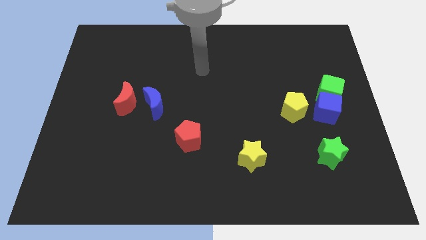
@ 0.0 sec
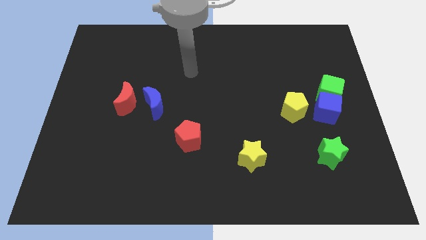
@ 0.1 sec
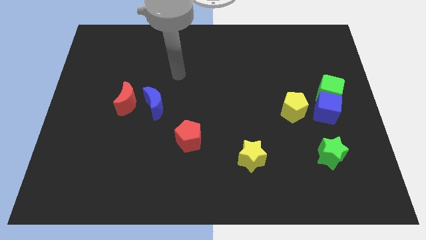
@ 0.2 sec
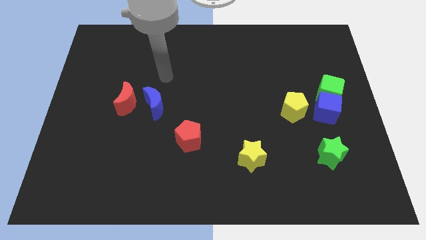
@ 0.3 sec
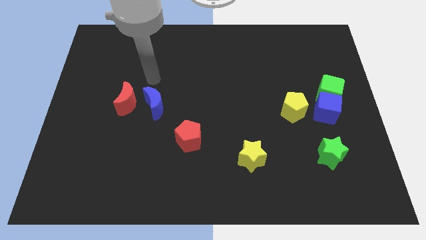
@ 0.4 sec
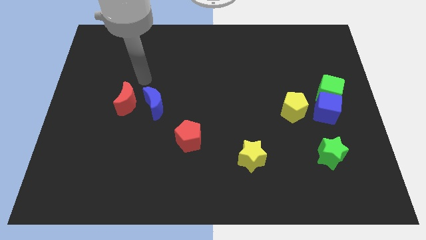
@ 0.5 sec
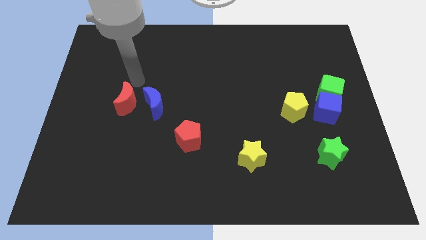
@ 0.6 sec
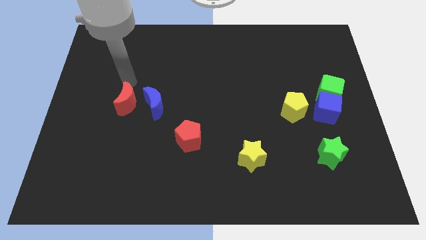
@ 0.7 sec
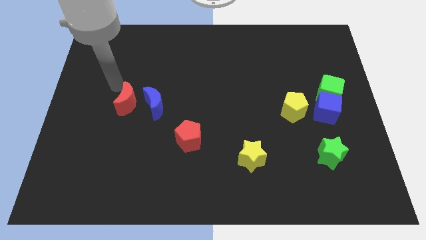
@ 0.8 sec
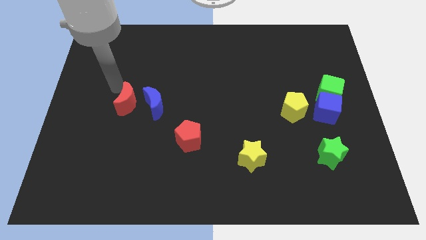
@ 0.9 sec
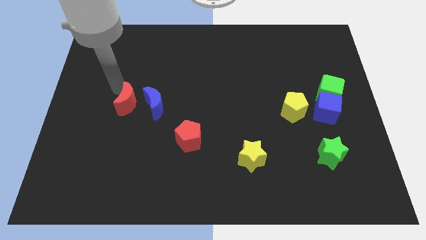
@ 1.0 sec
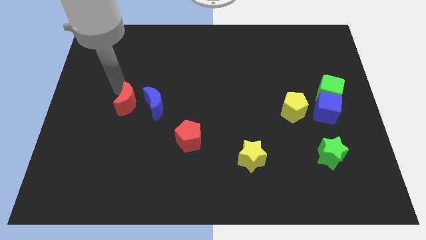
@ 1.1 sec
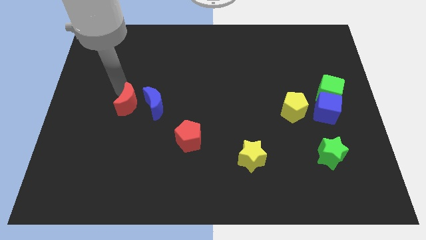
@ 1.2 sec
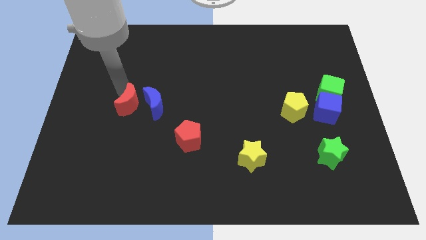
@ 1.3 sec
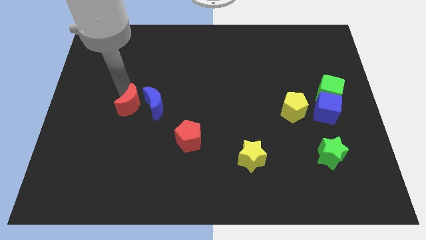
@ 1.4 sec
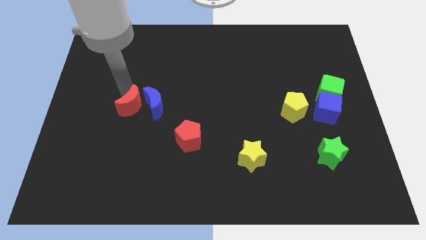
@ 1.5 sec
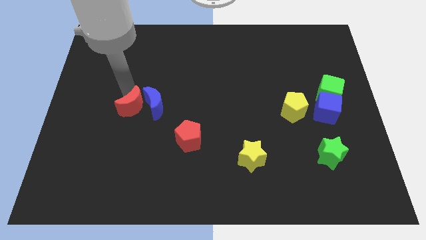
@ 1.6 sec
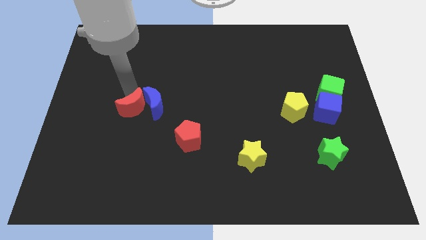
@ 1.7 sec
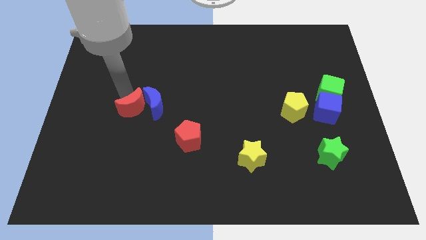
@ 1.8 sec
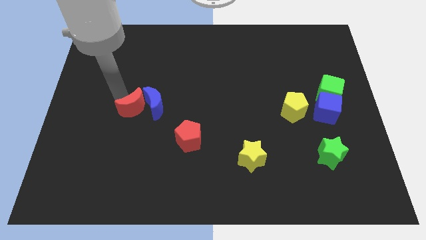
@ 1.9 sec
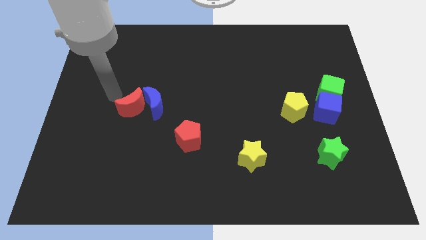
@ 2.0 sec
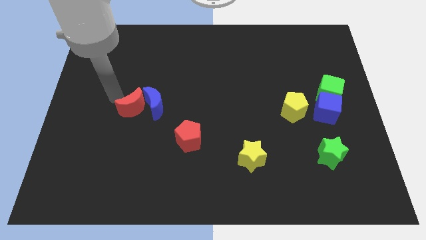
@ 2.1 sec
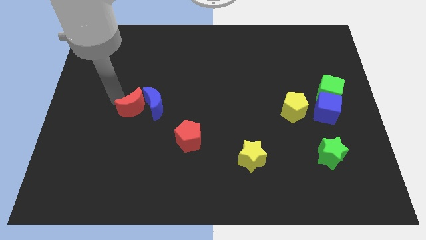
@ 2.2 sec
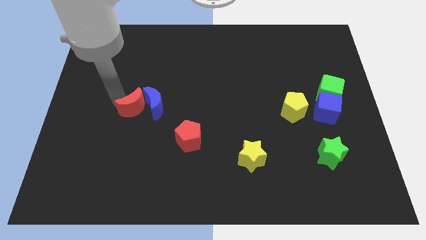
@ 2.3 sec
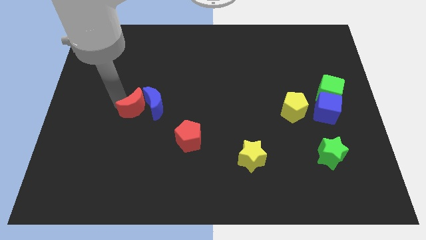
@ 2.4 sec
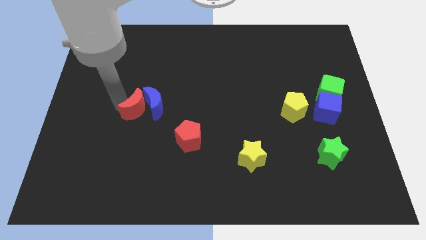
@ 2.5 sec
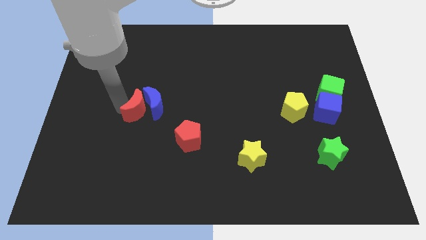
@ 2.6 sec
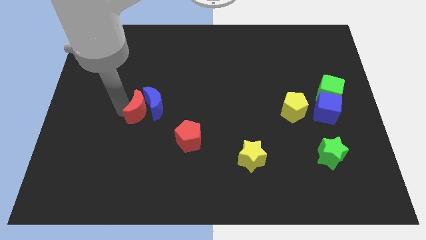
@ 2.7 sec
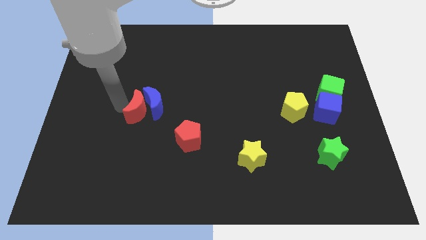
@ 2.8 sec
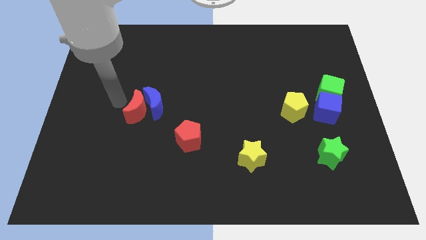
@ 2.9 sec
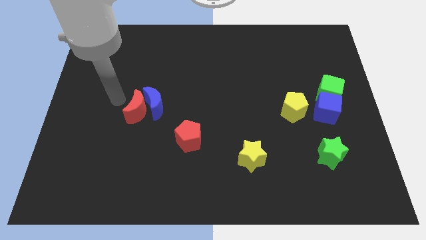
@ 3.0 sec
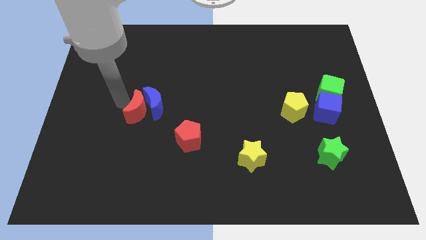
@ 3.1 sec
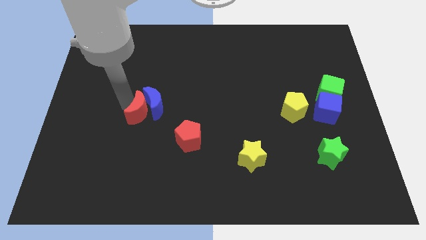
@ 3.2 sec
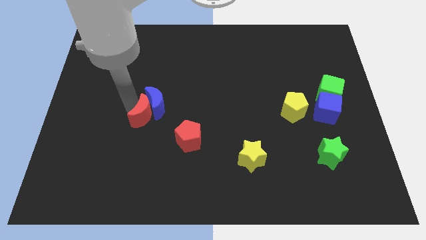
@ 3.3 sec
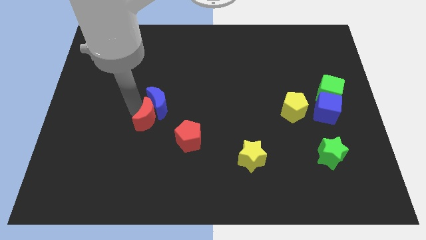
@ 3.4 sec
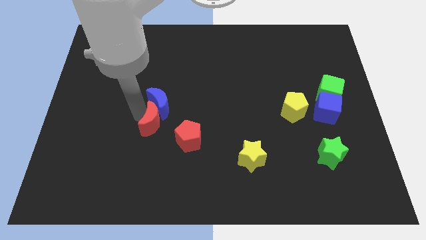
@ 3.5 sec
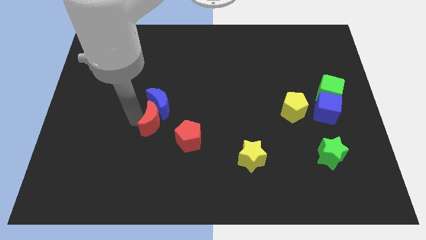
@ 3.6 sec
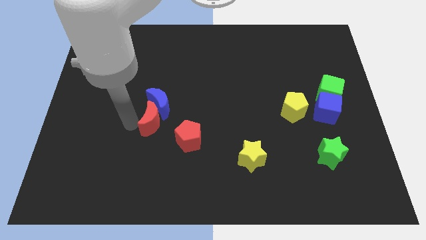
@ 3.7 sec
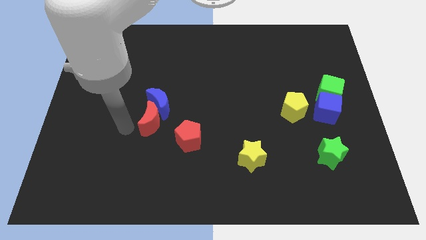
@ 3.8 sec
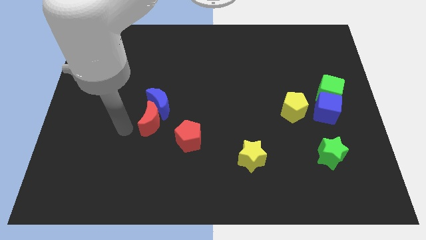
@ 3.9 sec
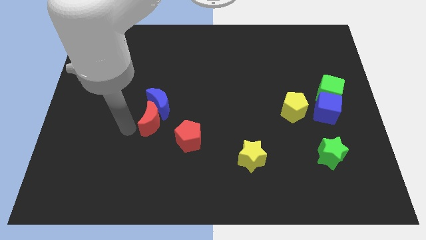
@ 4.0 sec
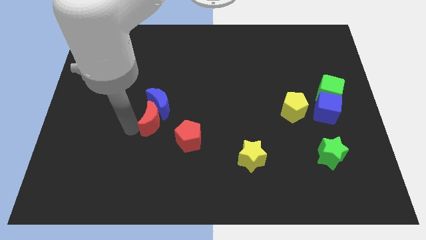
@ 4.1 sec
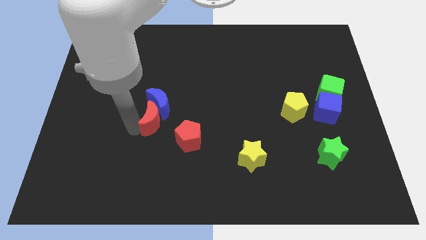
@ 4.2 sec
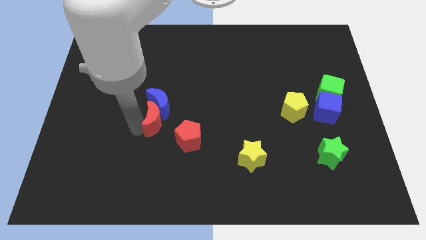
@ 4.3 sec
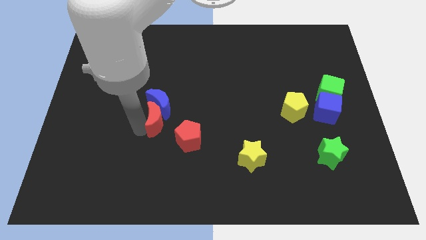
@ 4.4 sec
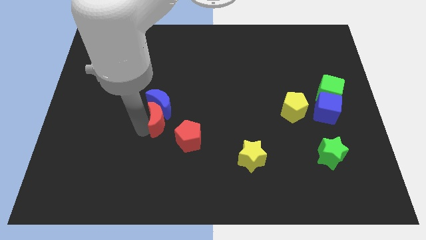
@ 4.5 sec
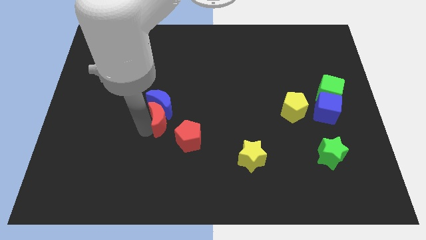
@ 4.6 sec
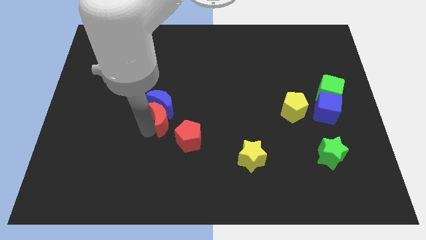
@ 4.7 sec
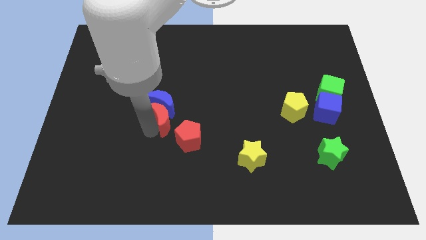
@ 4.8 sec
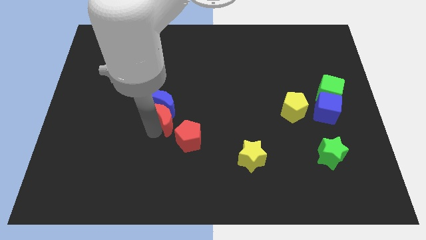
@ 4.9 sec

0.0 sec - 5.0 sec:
move the red moon to the middle of the board

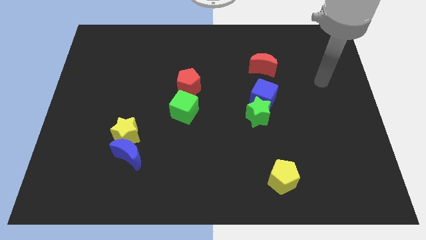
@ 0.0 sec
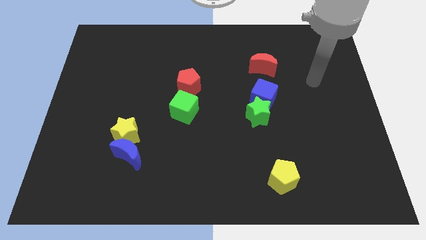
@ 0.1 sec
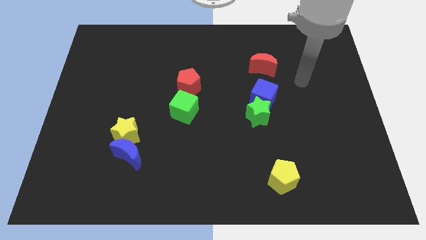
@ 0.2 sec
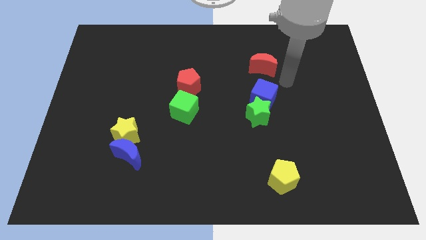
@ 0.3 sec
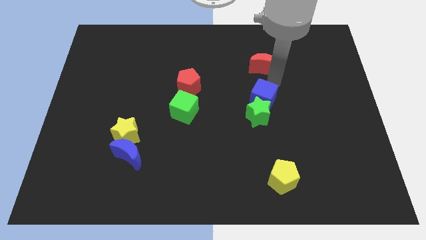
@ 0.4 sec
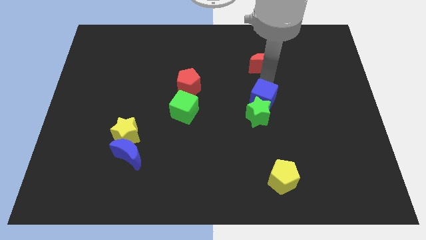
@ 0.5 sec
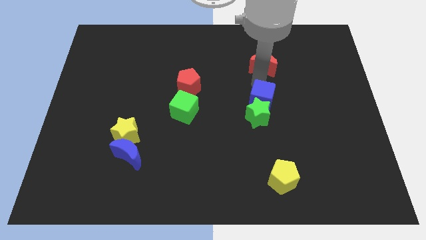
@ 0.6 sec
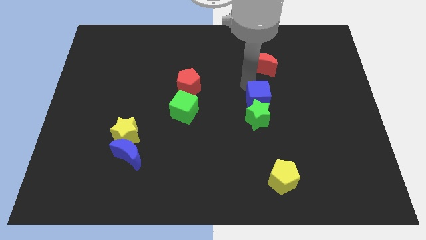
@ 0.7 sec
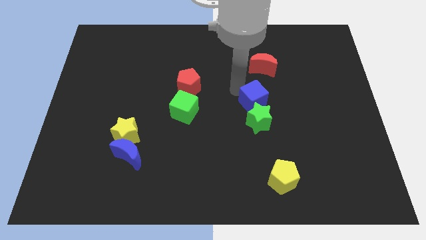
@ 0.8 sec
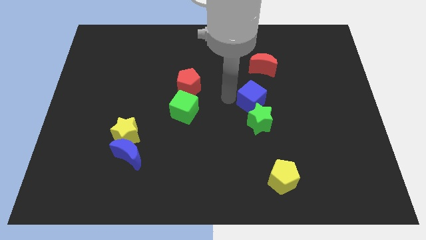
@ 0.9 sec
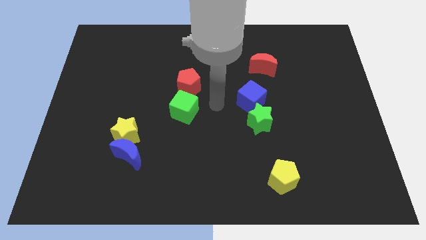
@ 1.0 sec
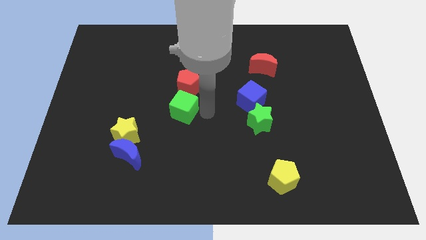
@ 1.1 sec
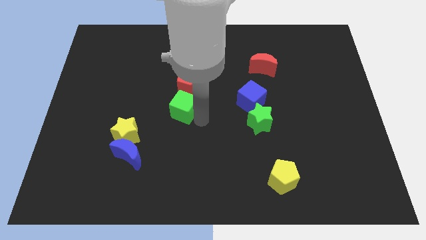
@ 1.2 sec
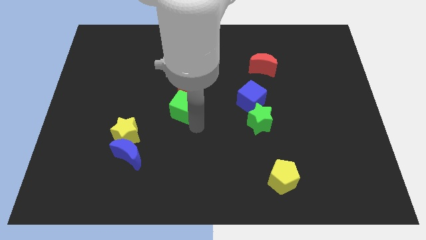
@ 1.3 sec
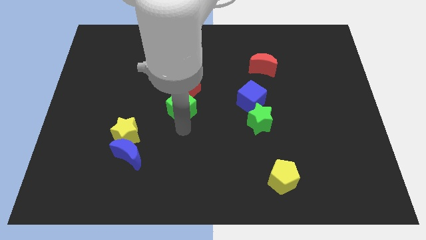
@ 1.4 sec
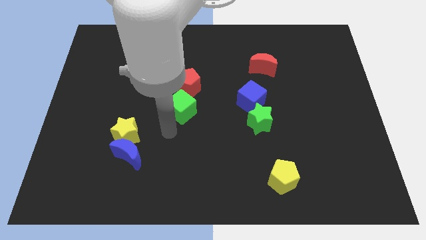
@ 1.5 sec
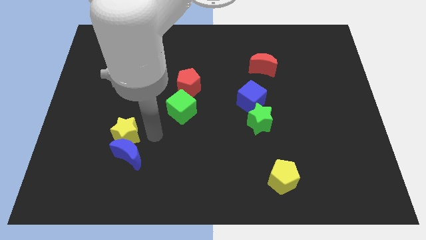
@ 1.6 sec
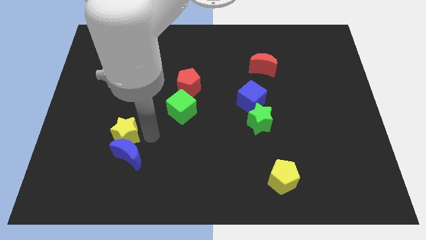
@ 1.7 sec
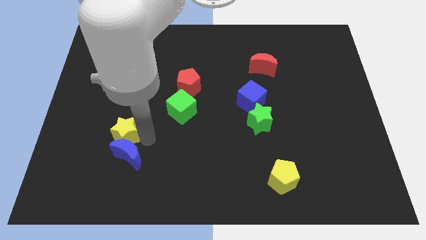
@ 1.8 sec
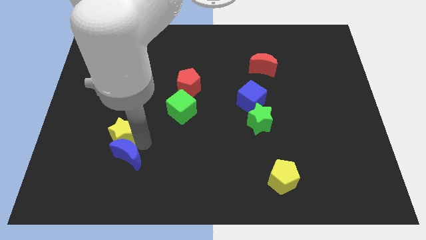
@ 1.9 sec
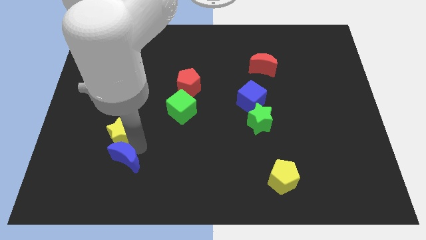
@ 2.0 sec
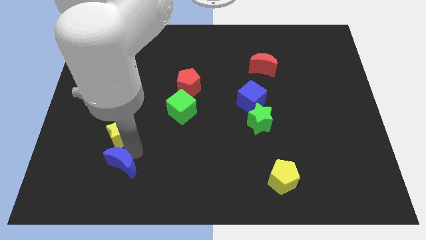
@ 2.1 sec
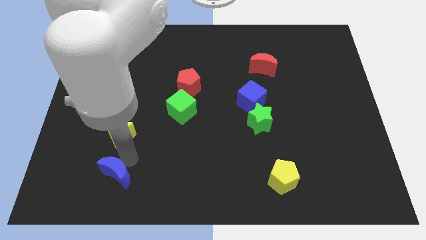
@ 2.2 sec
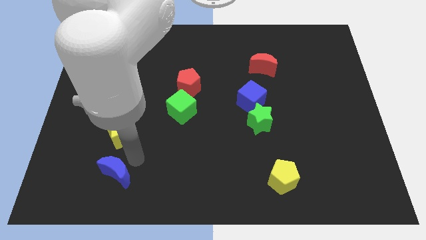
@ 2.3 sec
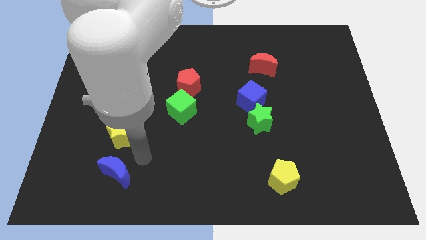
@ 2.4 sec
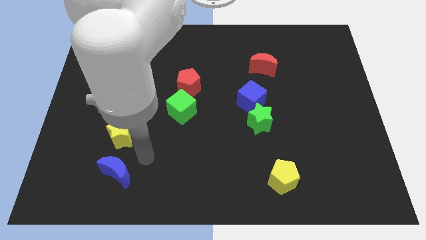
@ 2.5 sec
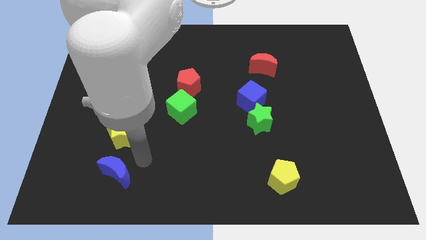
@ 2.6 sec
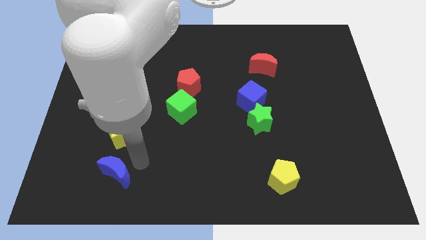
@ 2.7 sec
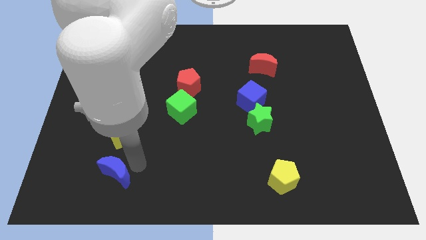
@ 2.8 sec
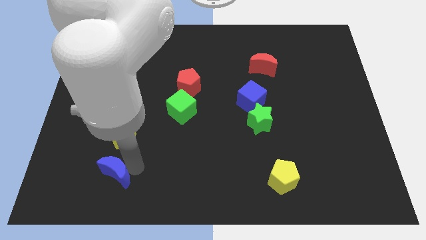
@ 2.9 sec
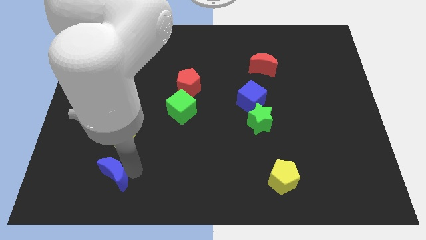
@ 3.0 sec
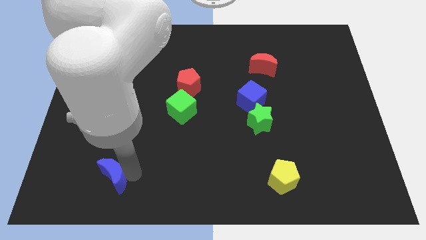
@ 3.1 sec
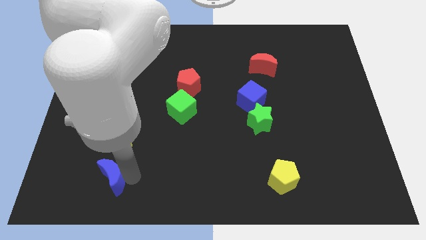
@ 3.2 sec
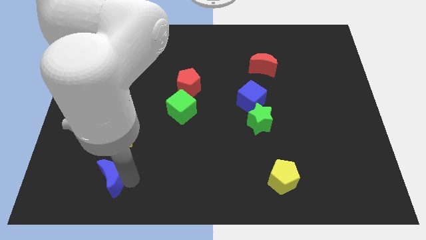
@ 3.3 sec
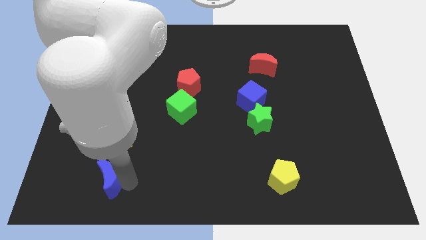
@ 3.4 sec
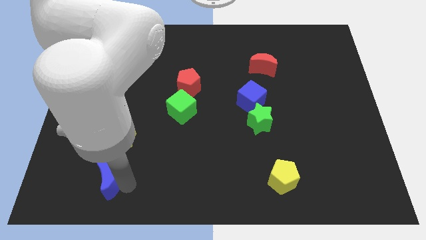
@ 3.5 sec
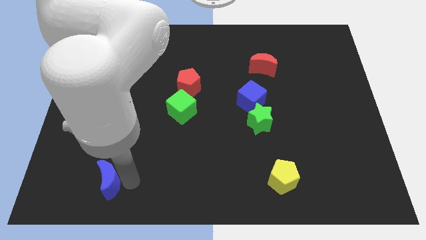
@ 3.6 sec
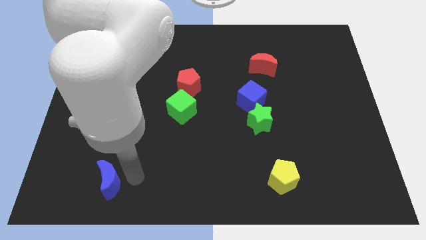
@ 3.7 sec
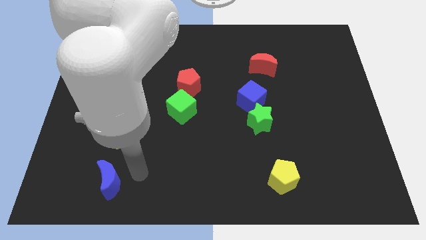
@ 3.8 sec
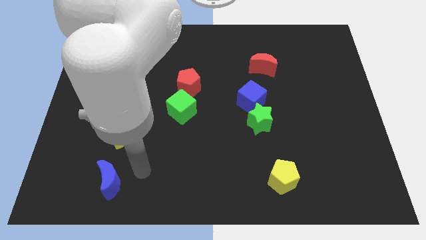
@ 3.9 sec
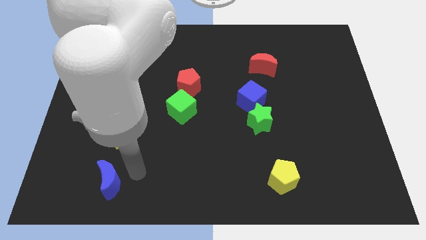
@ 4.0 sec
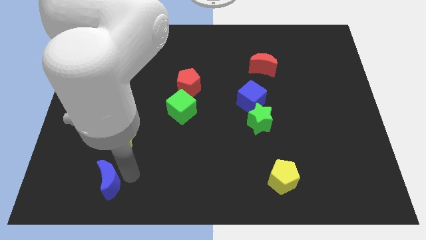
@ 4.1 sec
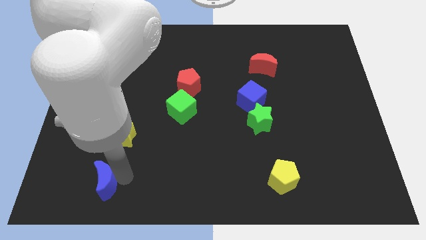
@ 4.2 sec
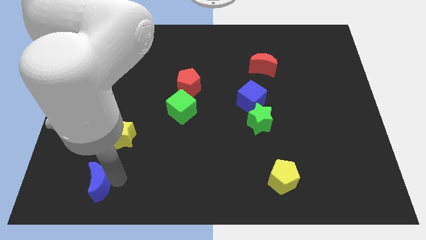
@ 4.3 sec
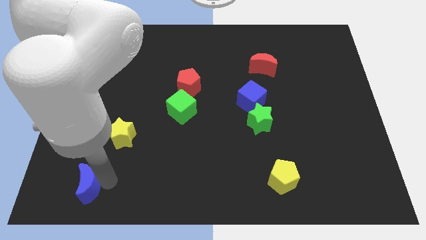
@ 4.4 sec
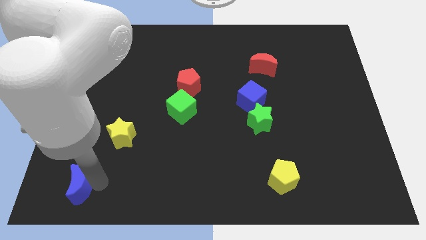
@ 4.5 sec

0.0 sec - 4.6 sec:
move the blue moon to the lower left corner
